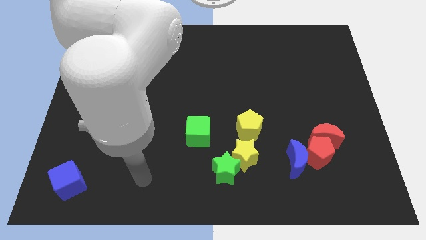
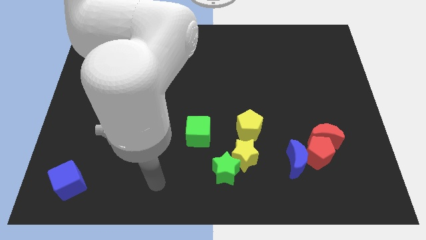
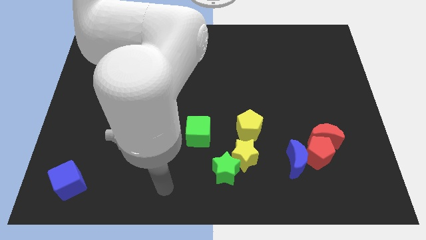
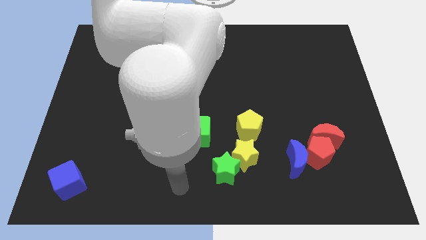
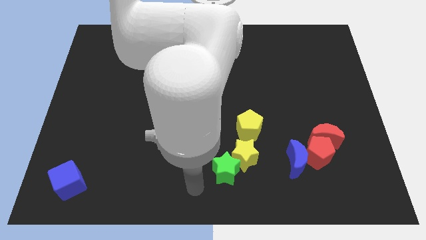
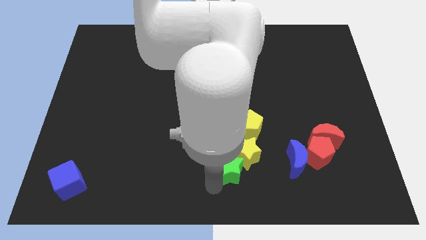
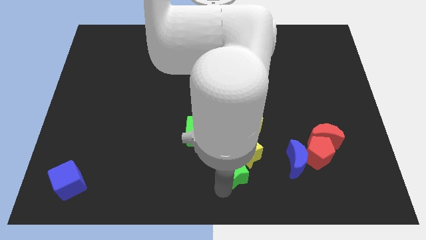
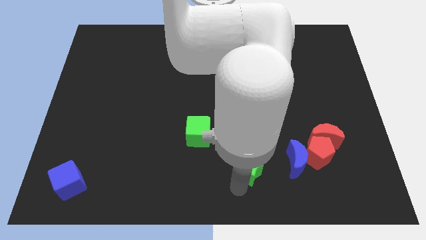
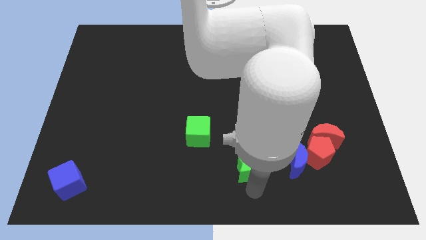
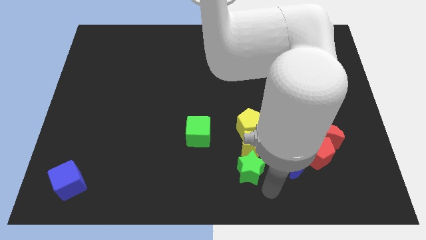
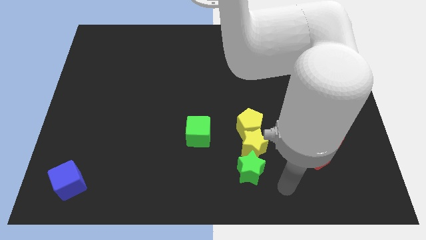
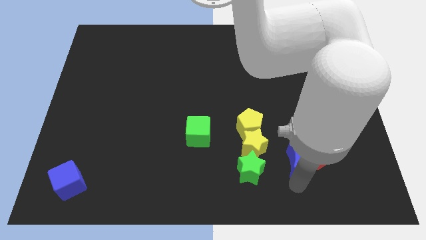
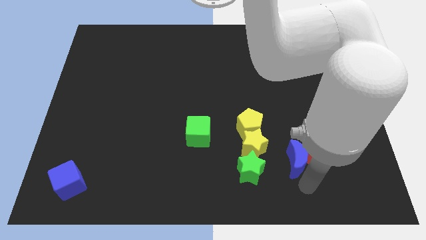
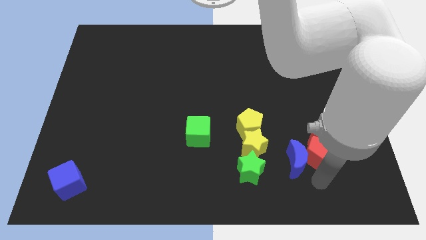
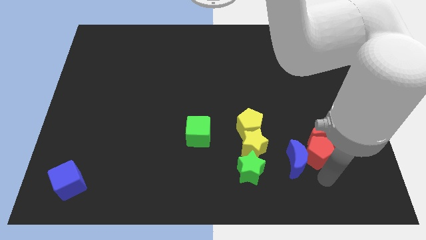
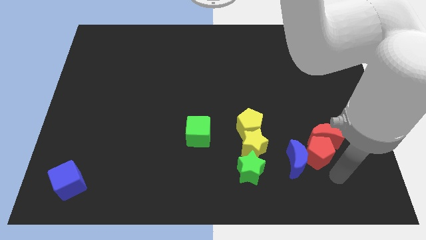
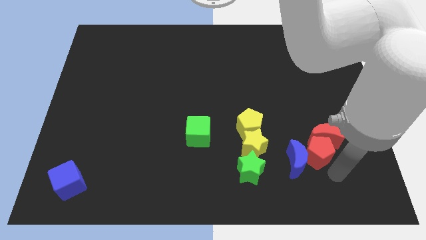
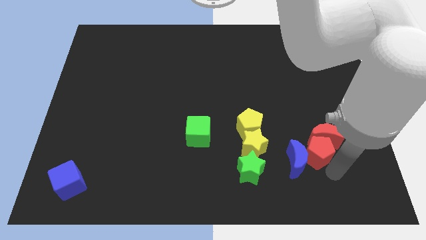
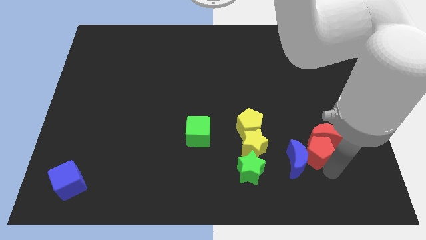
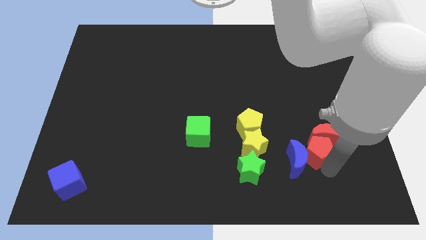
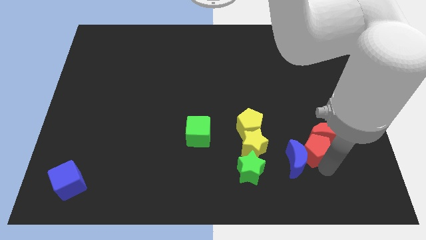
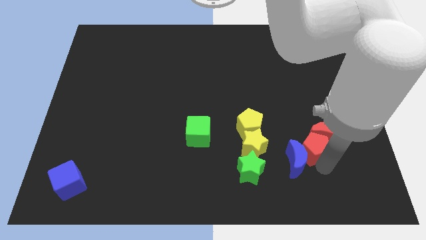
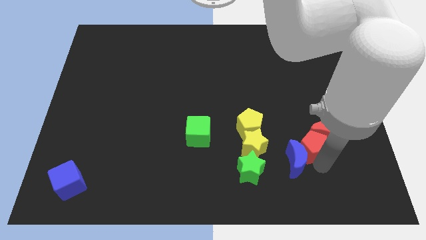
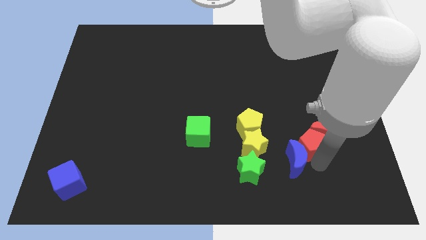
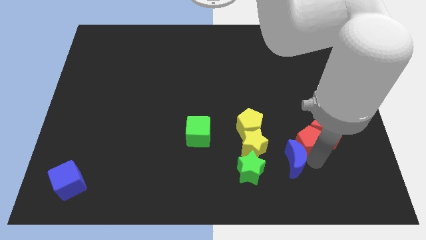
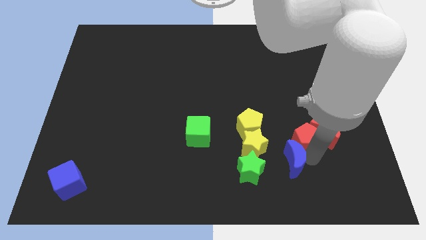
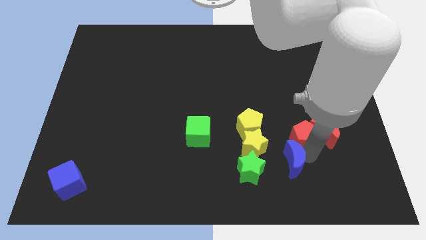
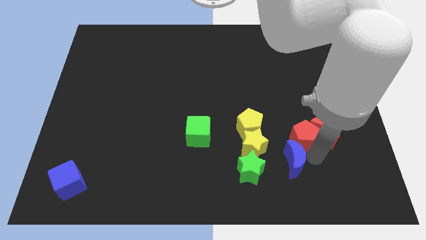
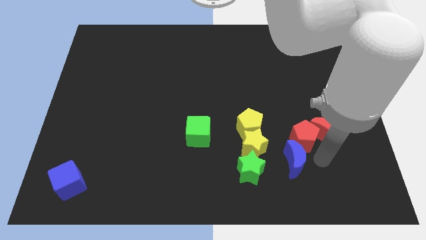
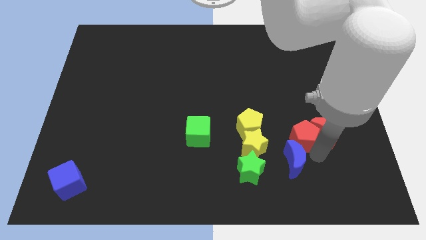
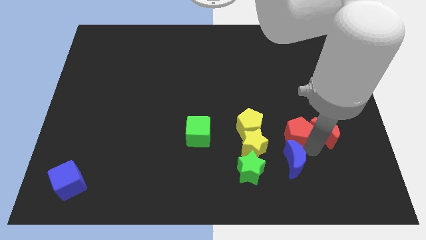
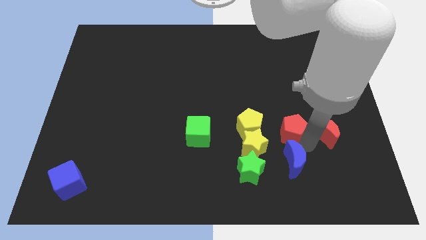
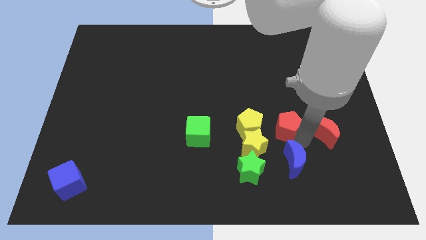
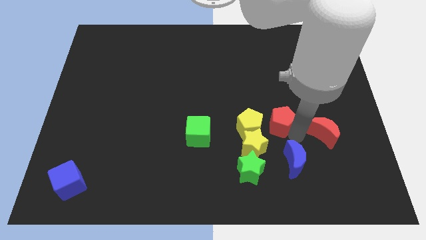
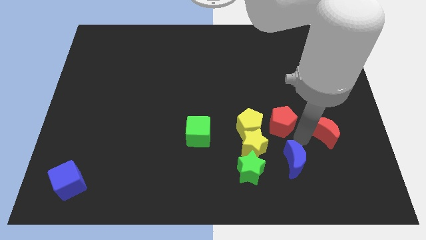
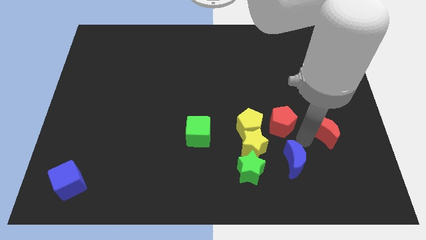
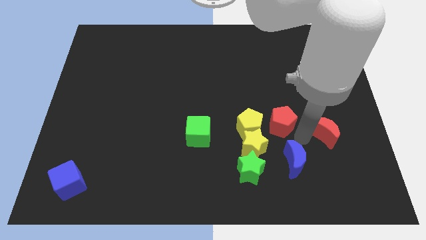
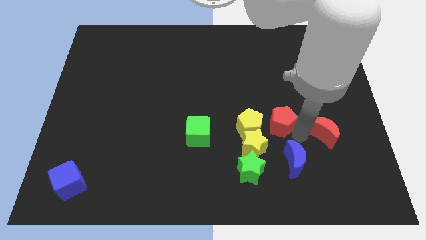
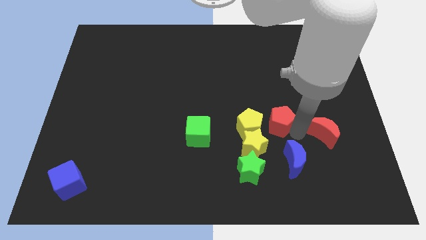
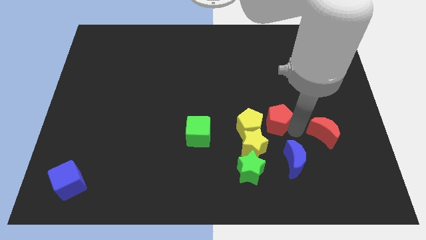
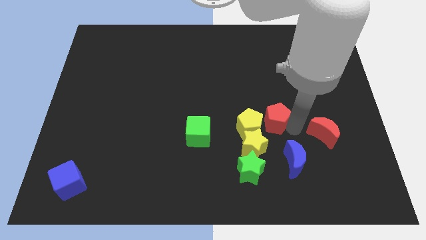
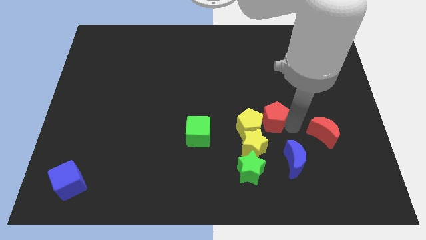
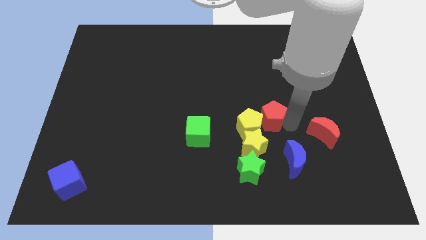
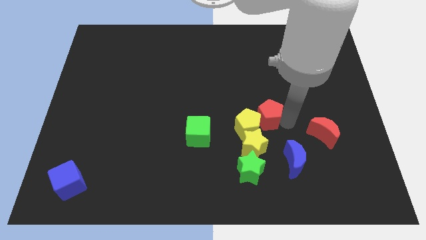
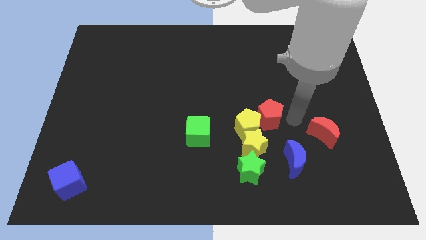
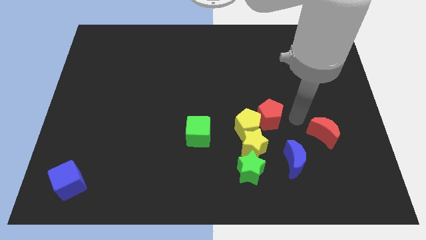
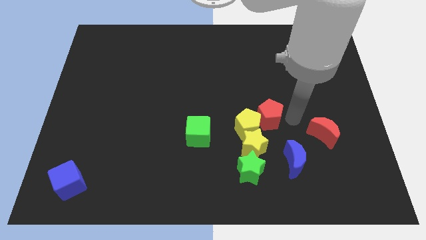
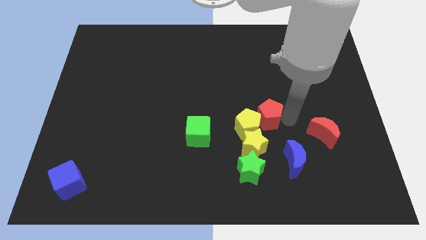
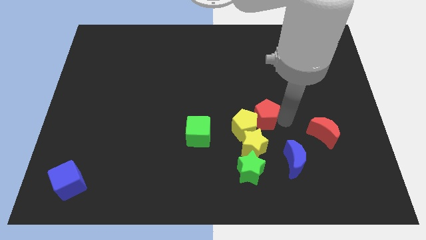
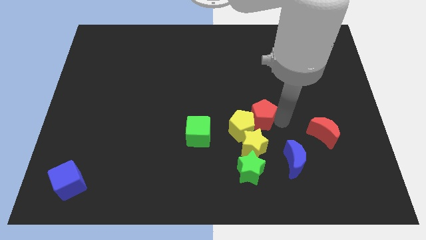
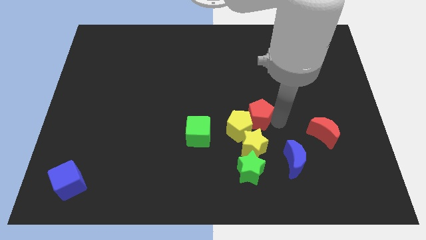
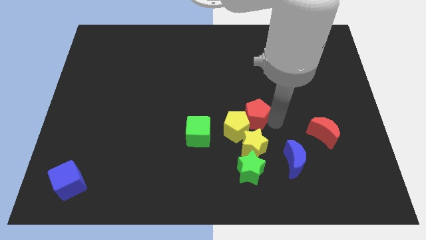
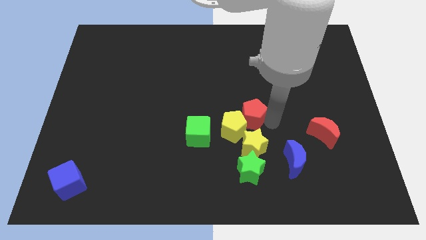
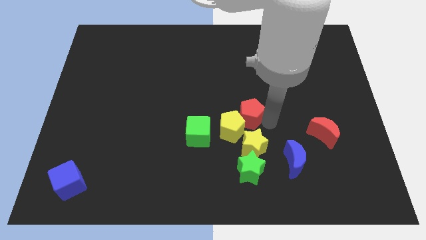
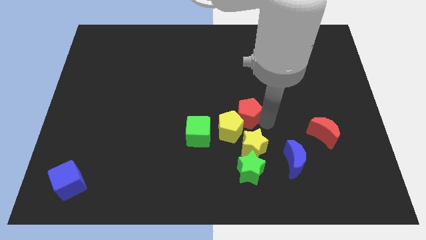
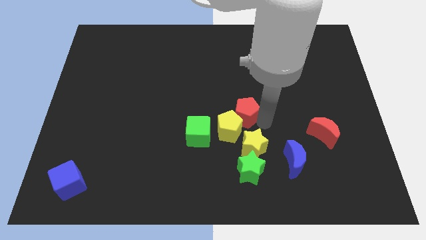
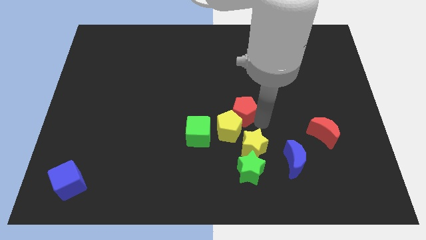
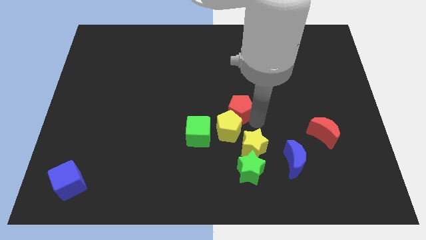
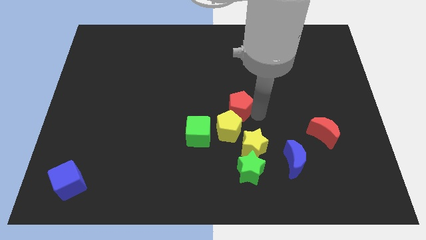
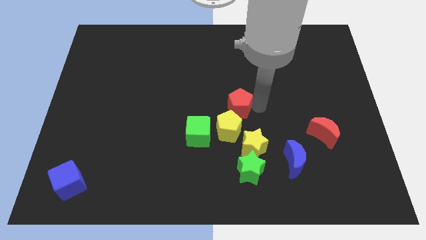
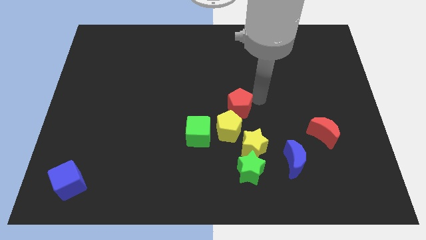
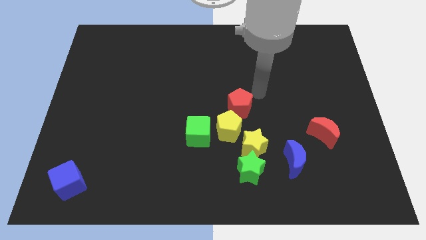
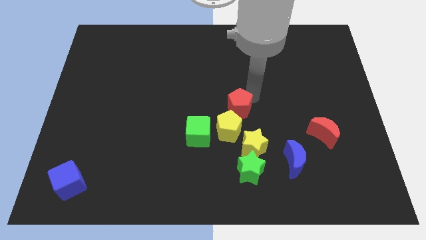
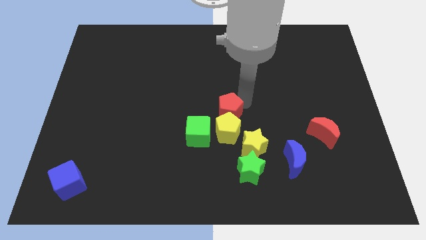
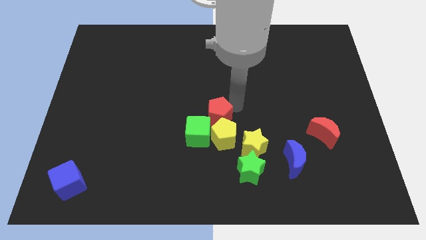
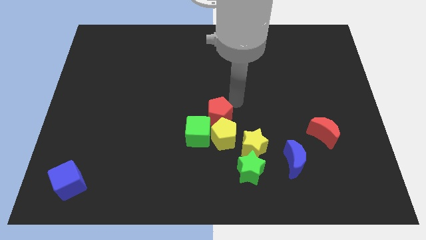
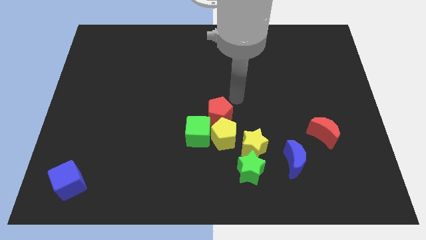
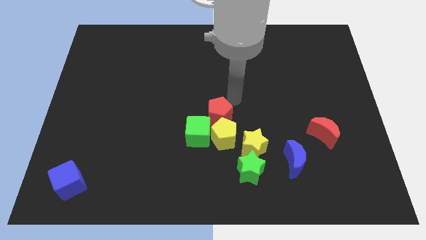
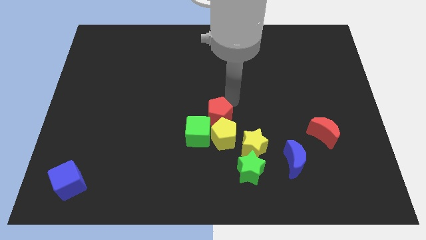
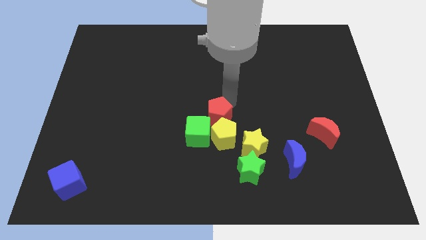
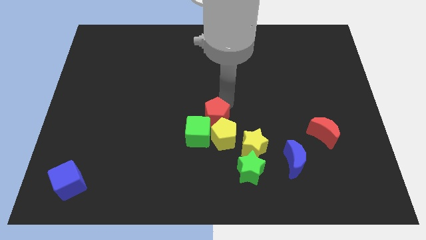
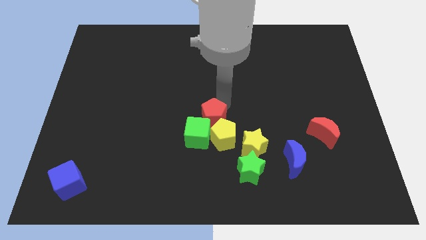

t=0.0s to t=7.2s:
put the red pentagon close to the green cube
